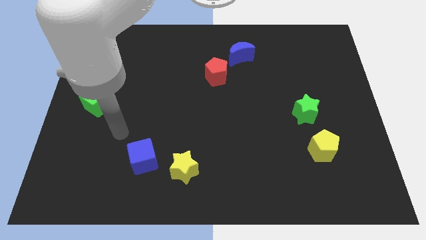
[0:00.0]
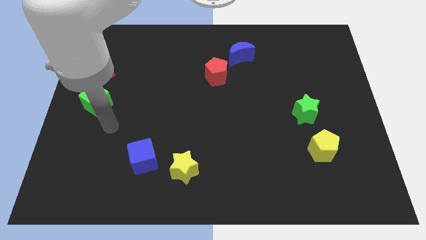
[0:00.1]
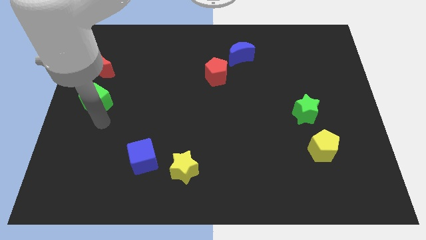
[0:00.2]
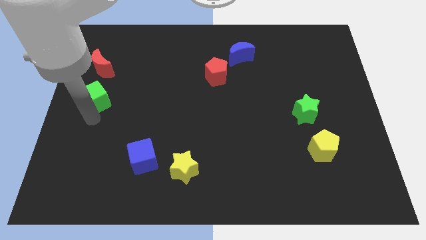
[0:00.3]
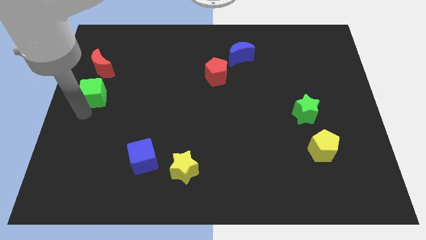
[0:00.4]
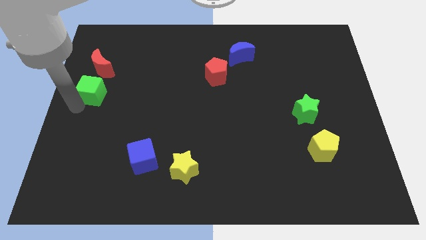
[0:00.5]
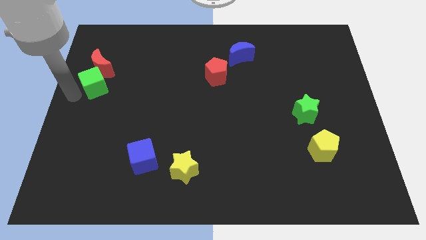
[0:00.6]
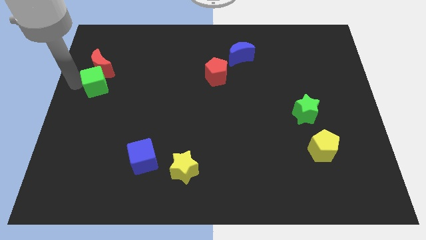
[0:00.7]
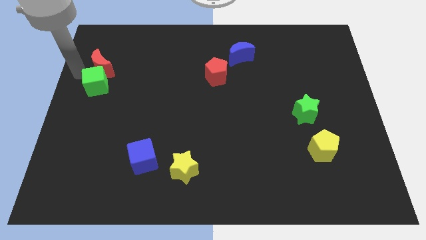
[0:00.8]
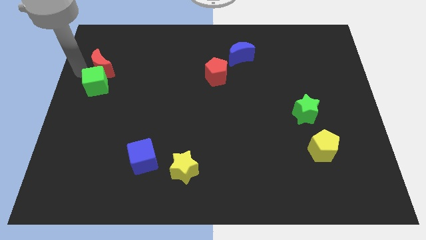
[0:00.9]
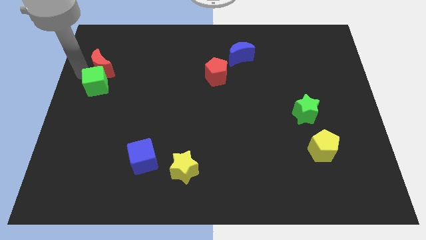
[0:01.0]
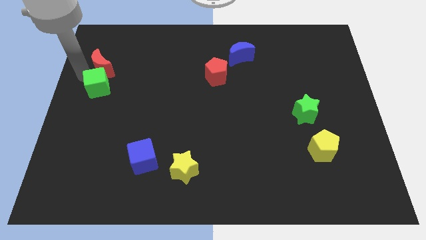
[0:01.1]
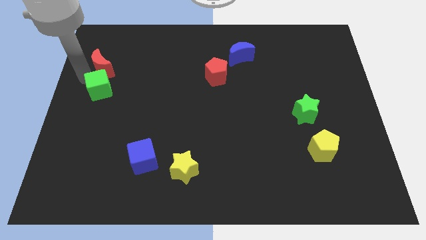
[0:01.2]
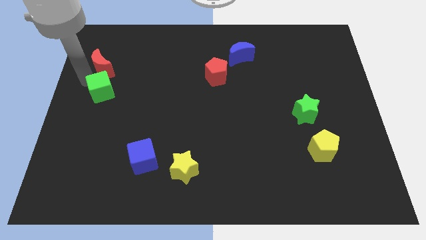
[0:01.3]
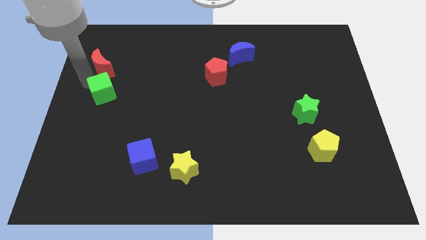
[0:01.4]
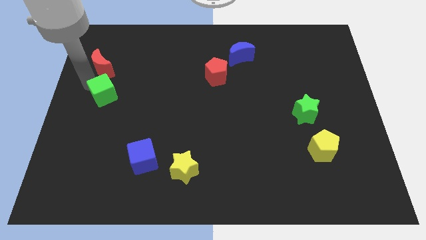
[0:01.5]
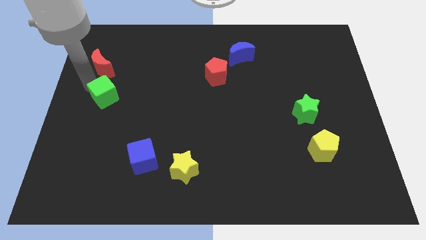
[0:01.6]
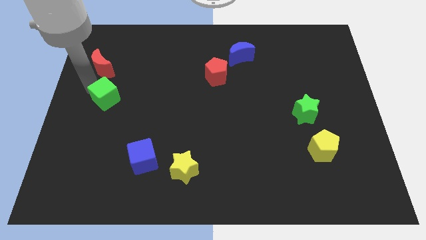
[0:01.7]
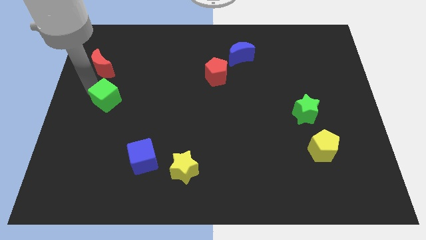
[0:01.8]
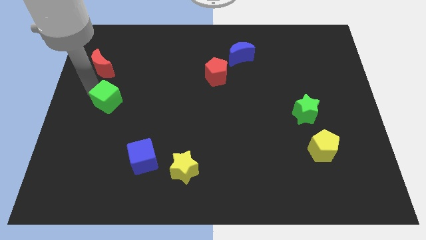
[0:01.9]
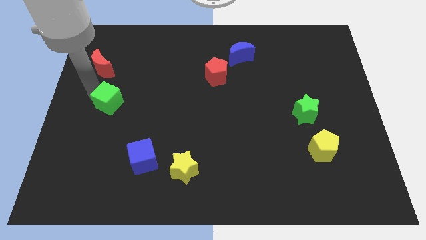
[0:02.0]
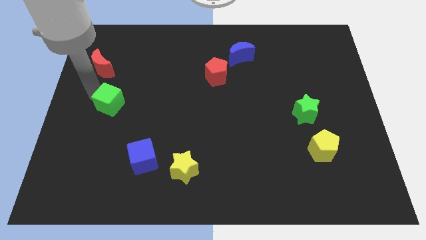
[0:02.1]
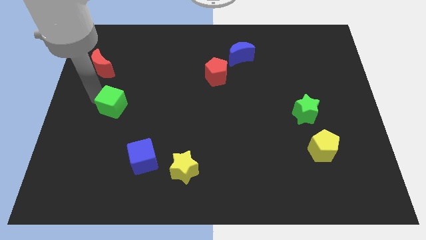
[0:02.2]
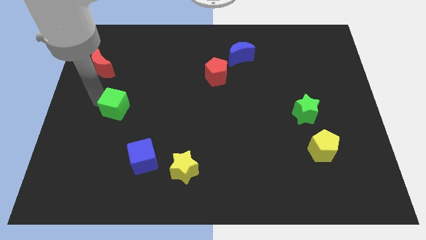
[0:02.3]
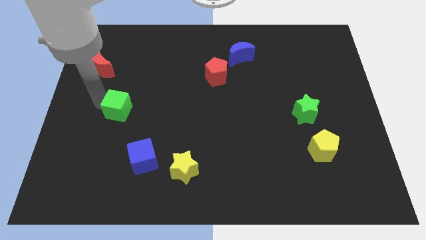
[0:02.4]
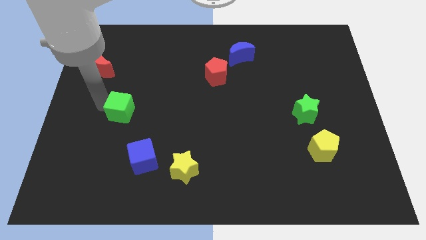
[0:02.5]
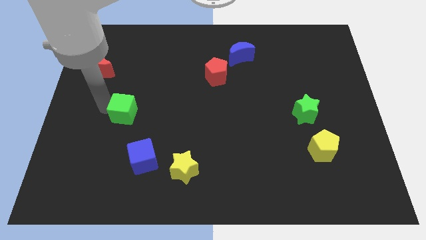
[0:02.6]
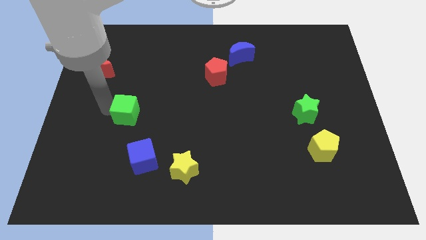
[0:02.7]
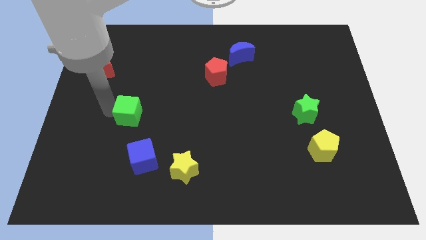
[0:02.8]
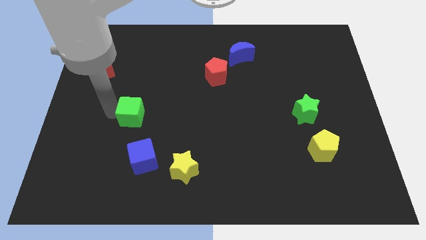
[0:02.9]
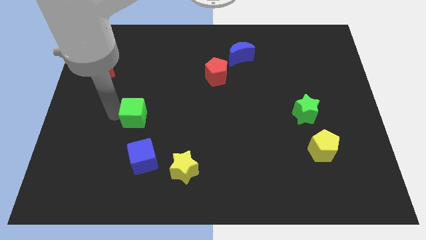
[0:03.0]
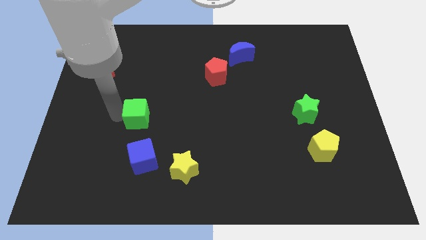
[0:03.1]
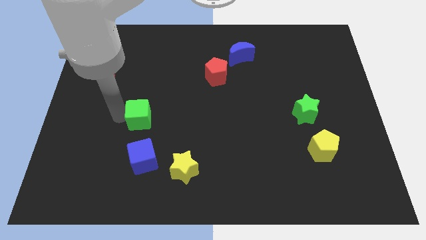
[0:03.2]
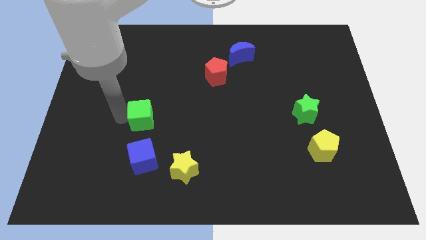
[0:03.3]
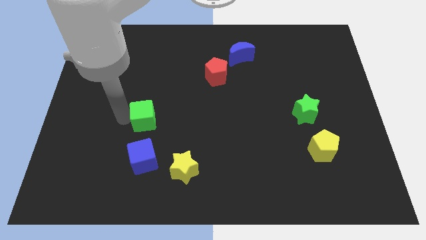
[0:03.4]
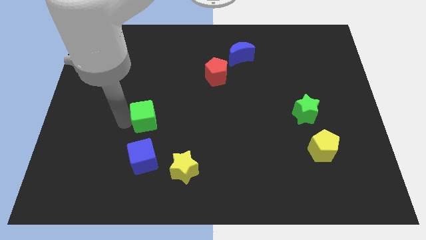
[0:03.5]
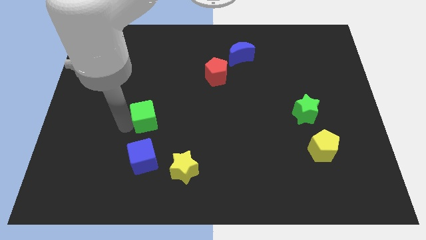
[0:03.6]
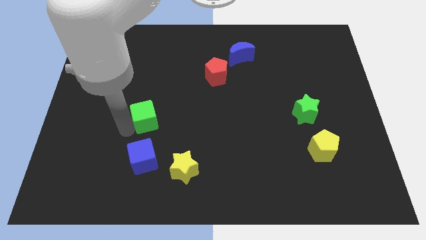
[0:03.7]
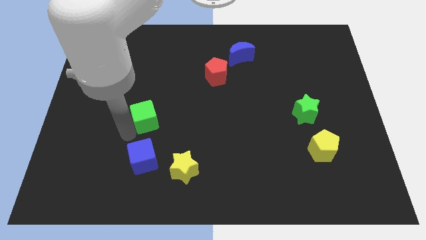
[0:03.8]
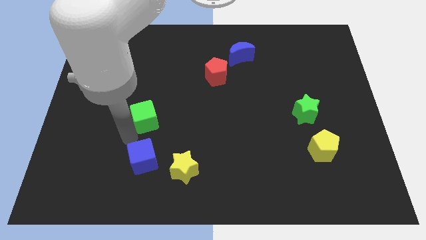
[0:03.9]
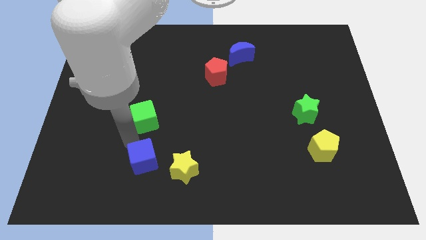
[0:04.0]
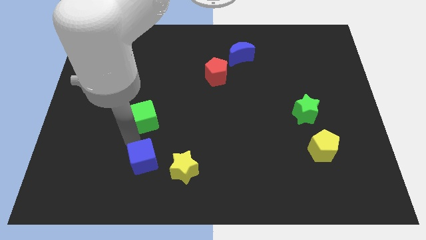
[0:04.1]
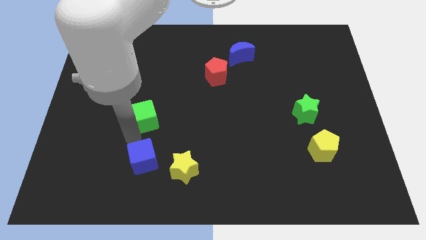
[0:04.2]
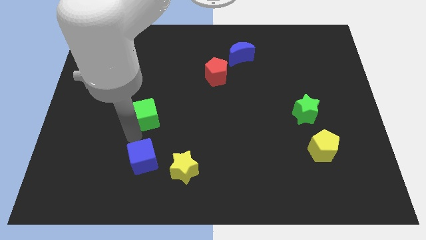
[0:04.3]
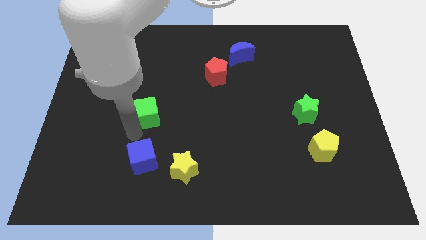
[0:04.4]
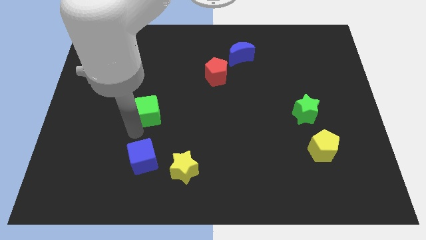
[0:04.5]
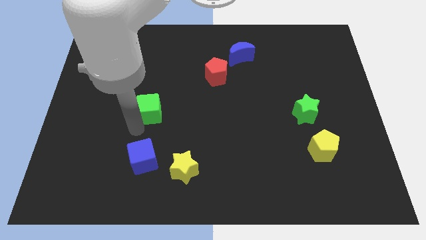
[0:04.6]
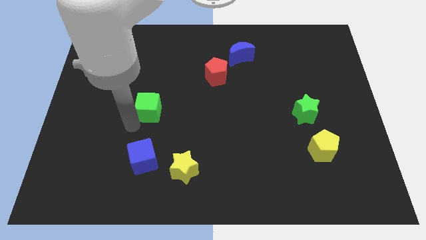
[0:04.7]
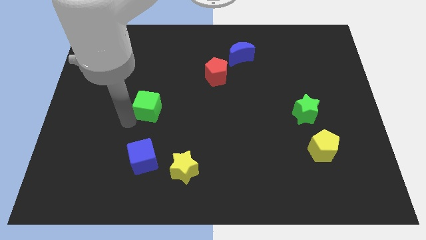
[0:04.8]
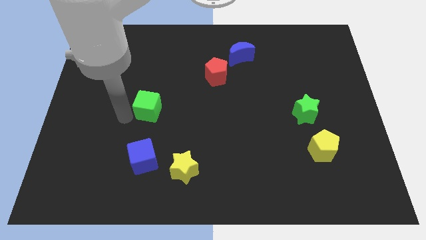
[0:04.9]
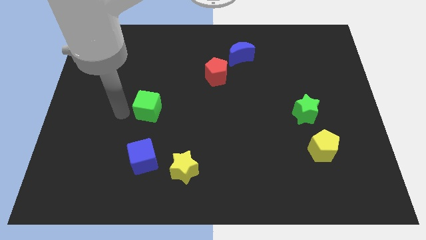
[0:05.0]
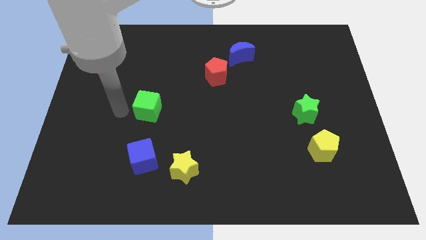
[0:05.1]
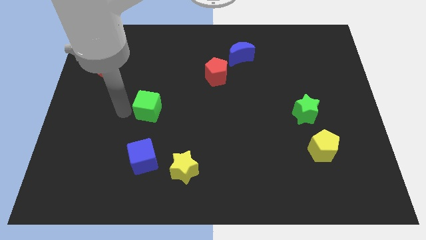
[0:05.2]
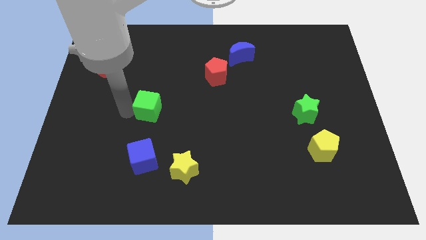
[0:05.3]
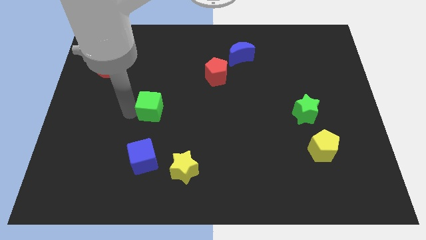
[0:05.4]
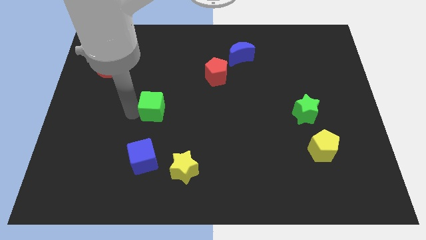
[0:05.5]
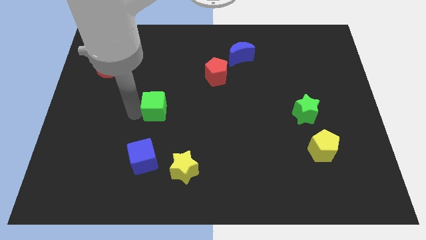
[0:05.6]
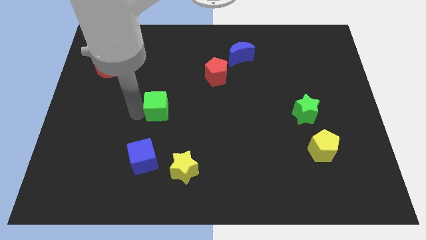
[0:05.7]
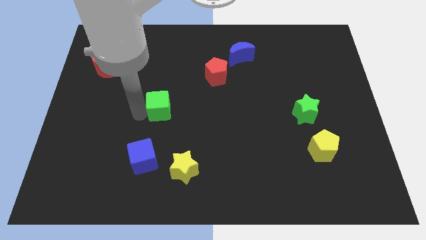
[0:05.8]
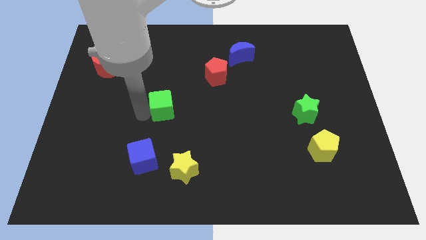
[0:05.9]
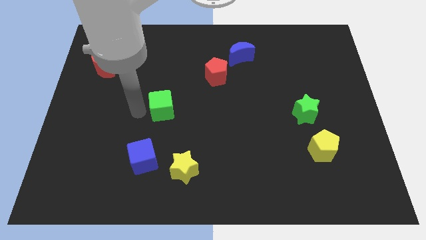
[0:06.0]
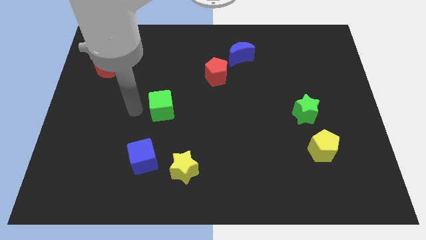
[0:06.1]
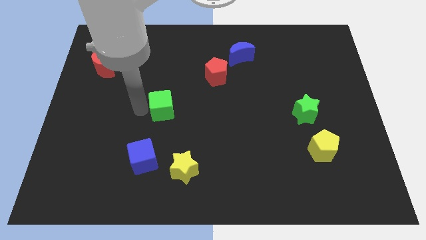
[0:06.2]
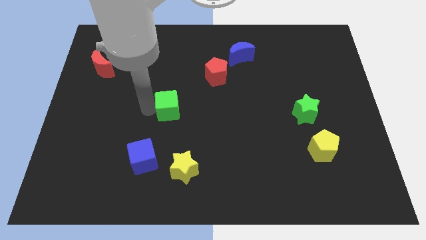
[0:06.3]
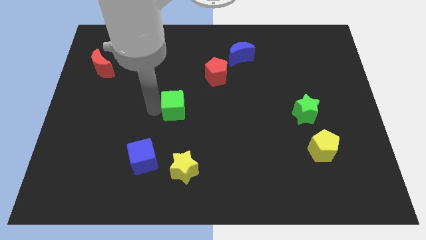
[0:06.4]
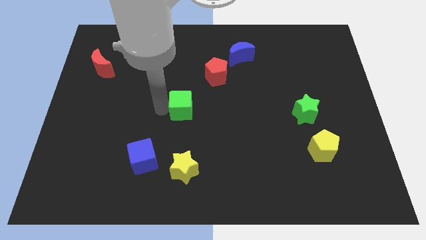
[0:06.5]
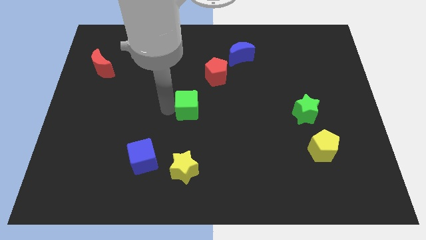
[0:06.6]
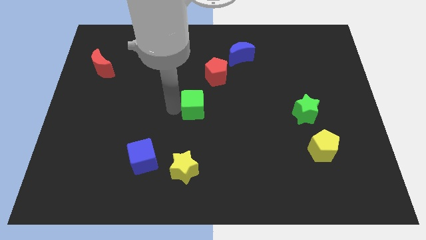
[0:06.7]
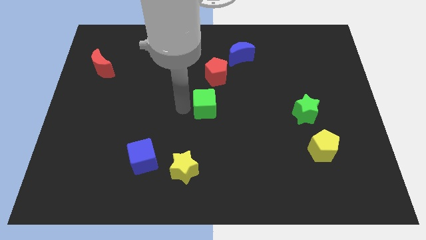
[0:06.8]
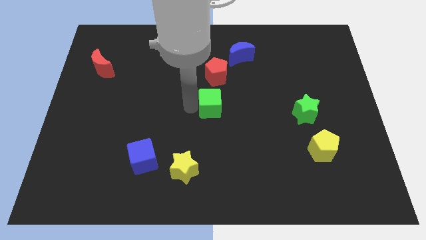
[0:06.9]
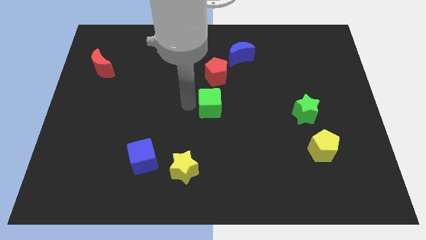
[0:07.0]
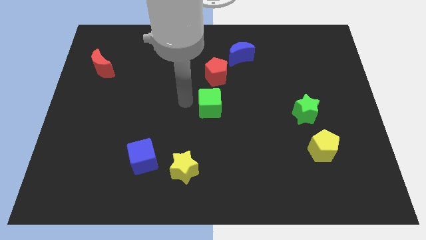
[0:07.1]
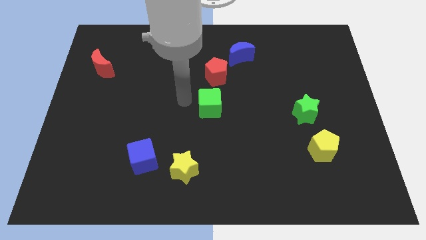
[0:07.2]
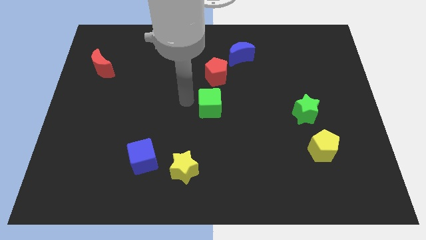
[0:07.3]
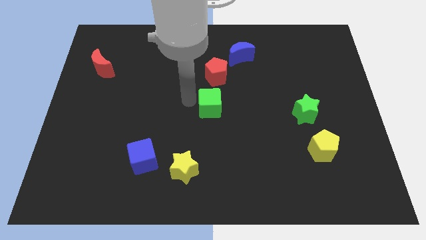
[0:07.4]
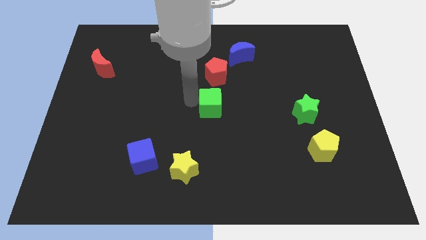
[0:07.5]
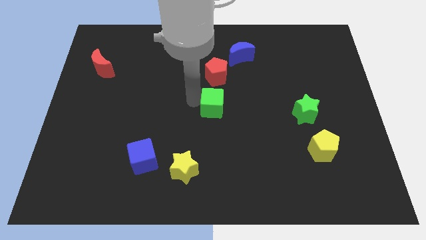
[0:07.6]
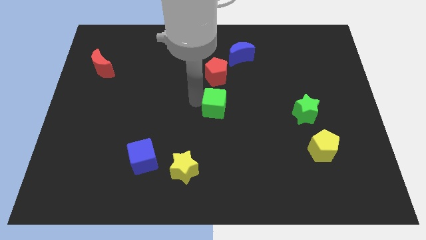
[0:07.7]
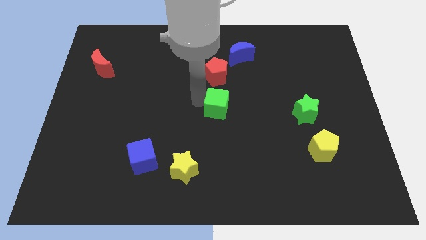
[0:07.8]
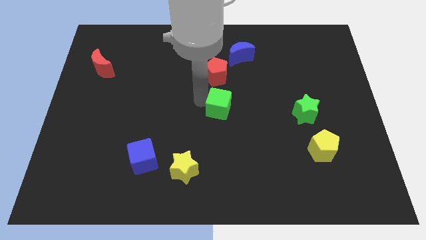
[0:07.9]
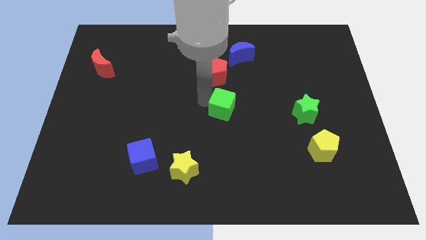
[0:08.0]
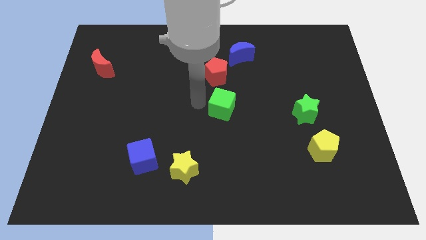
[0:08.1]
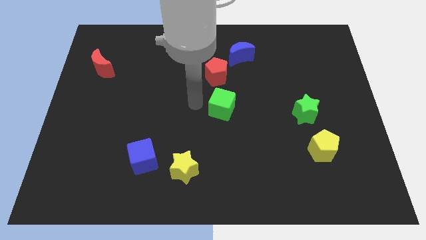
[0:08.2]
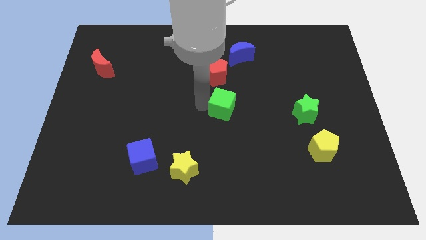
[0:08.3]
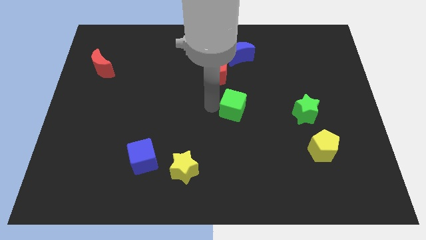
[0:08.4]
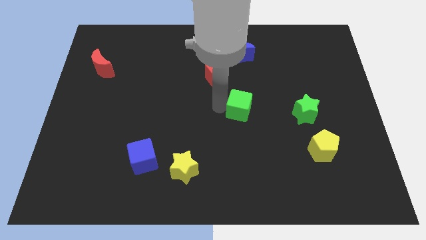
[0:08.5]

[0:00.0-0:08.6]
put the green cube to the left side of the green star
